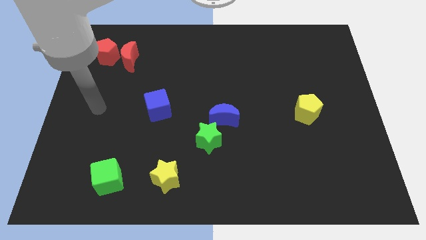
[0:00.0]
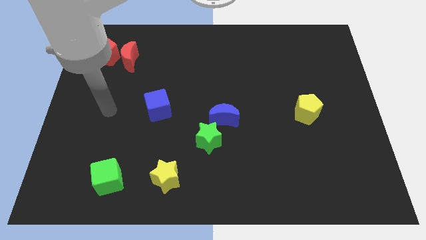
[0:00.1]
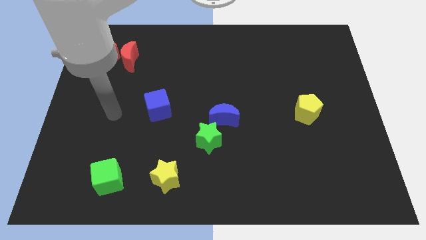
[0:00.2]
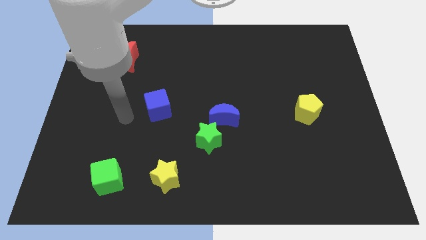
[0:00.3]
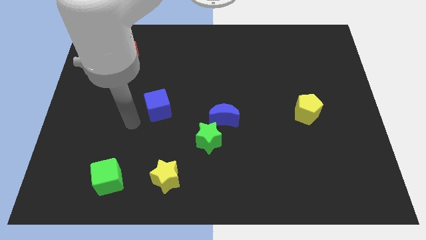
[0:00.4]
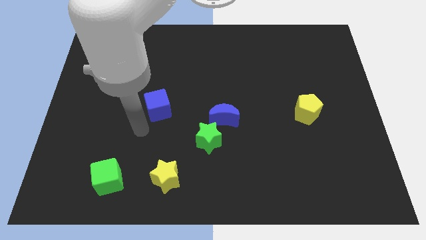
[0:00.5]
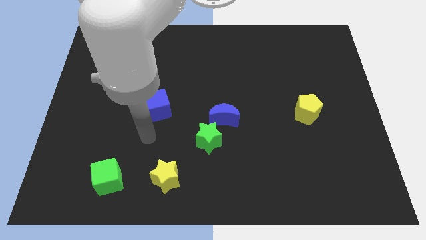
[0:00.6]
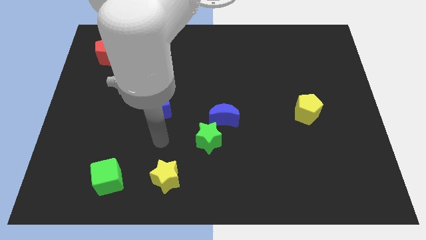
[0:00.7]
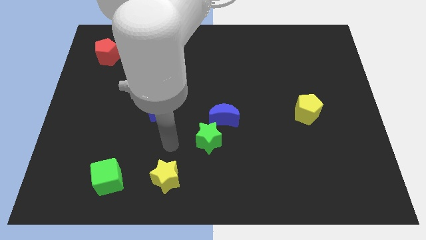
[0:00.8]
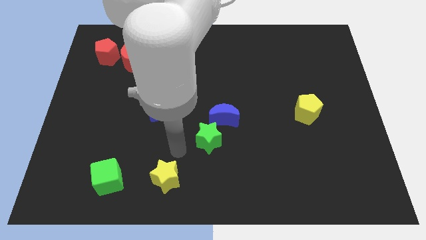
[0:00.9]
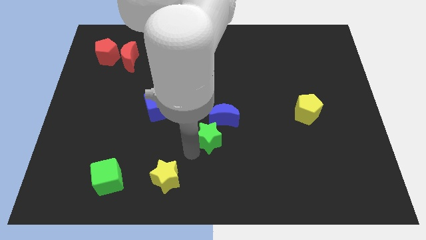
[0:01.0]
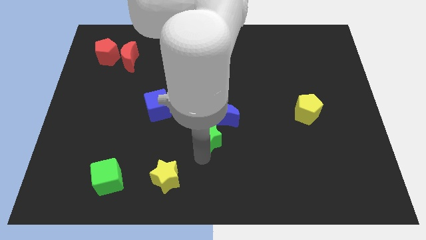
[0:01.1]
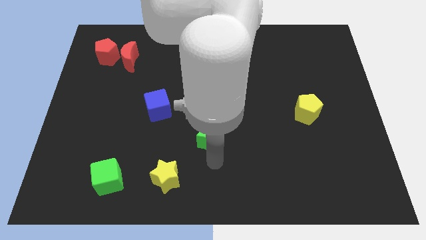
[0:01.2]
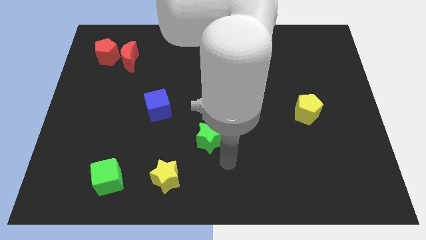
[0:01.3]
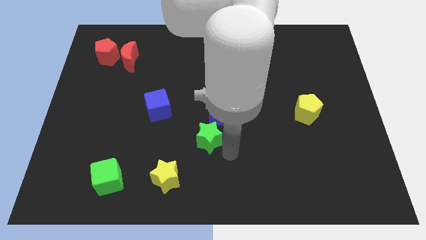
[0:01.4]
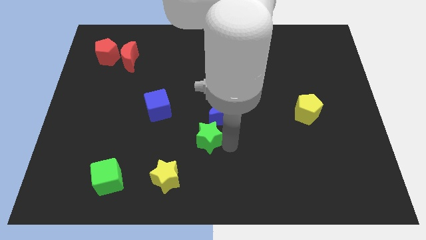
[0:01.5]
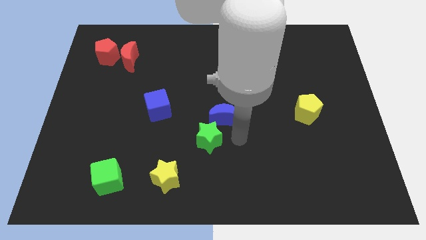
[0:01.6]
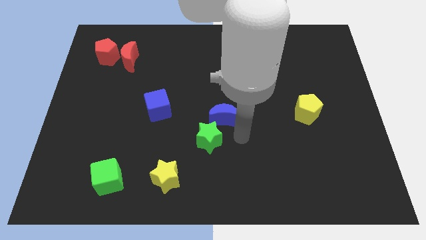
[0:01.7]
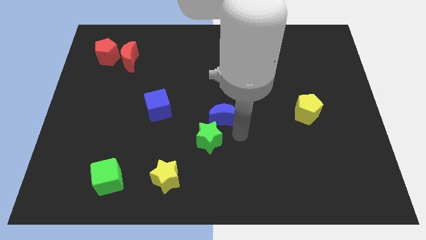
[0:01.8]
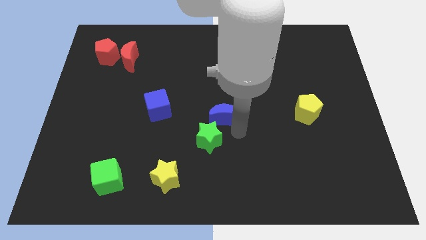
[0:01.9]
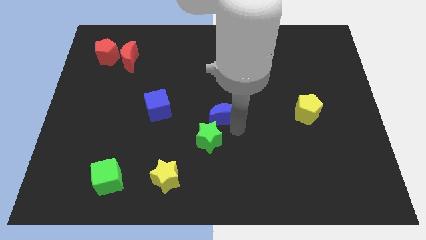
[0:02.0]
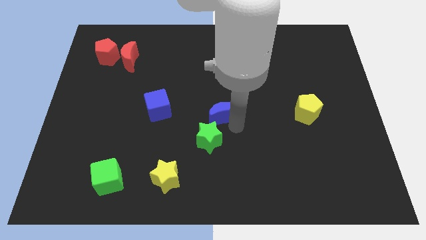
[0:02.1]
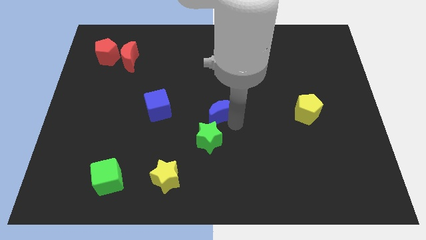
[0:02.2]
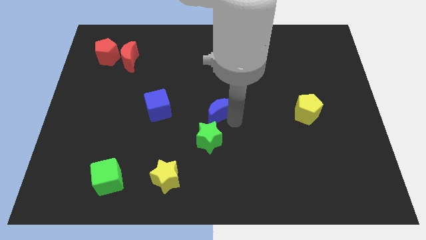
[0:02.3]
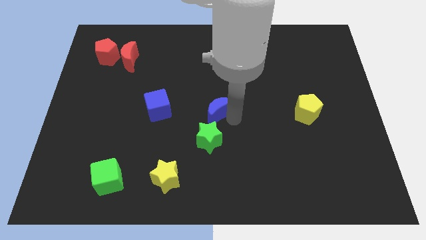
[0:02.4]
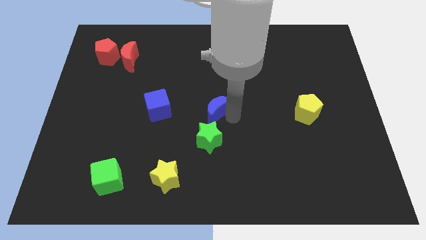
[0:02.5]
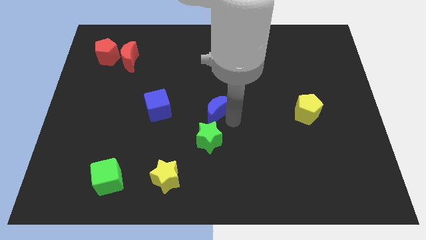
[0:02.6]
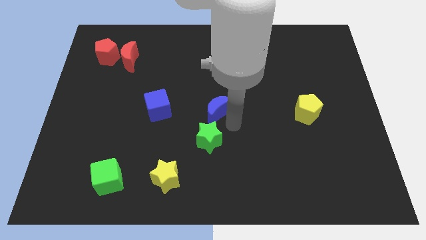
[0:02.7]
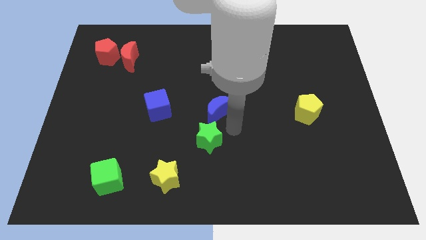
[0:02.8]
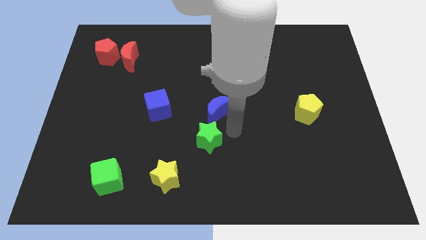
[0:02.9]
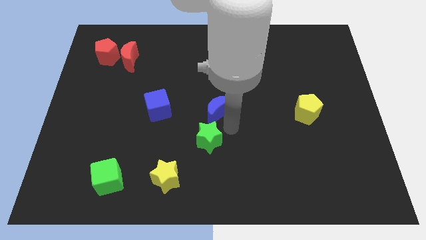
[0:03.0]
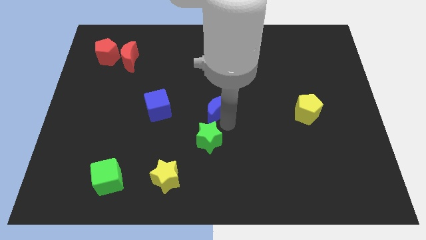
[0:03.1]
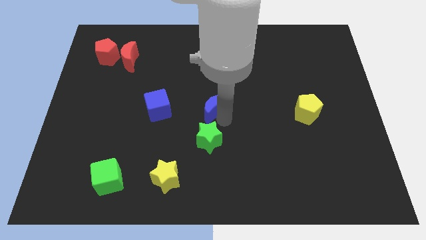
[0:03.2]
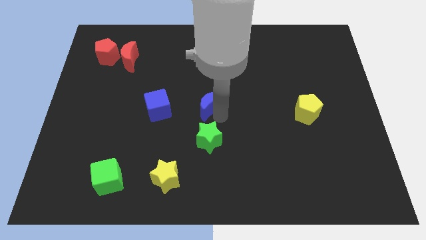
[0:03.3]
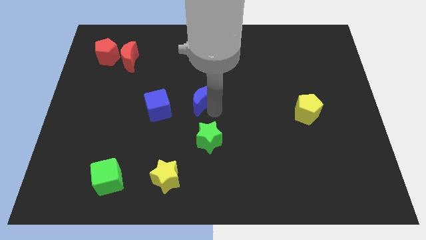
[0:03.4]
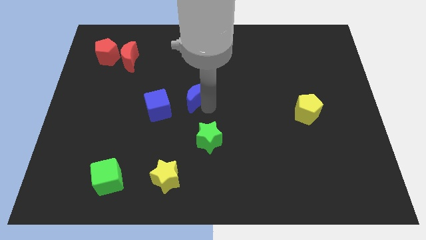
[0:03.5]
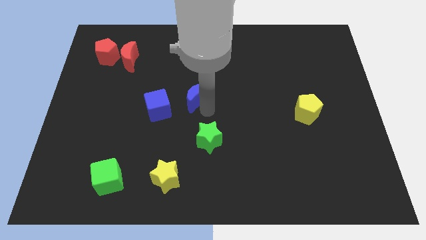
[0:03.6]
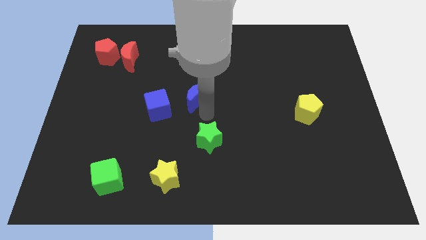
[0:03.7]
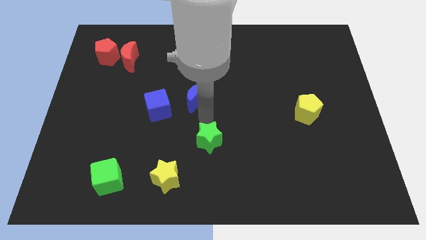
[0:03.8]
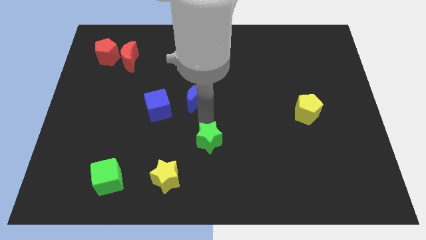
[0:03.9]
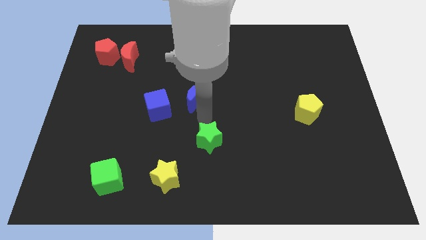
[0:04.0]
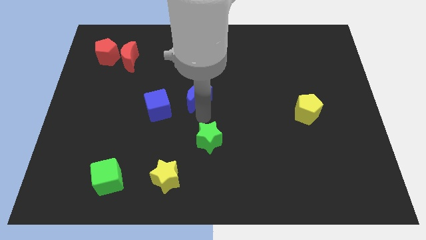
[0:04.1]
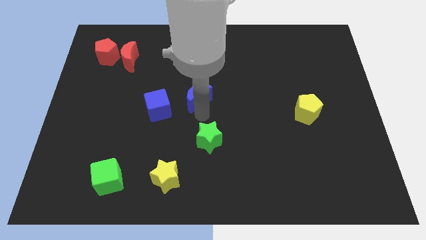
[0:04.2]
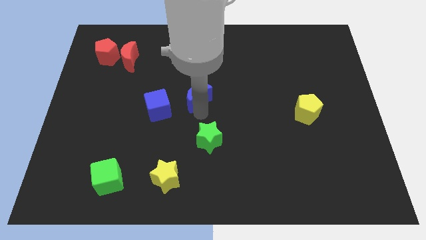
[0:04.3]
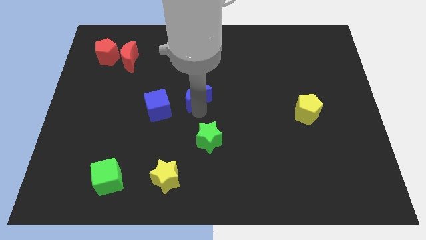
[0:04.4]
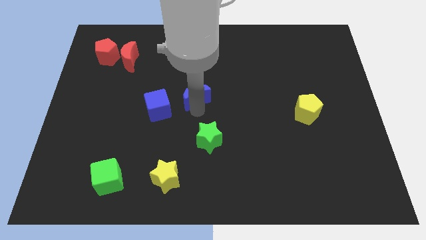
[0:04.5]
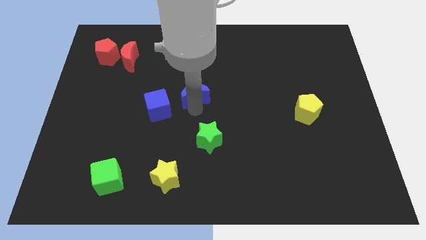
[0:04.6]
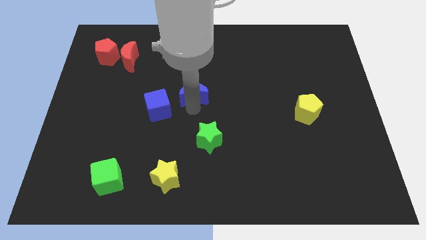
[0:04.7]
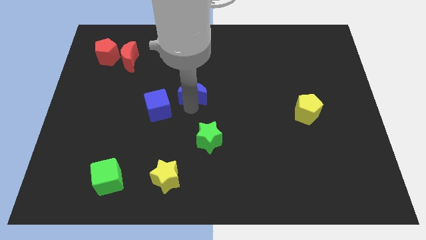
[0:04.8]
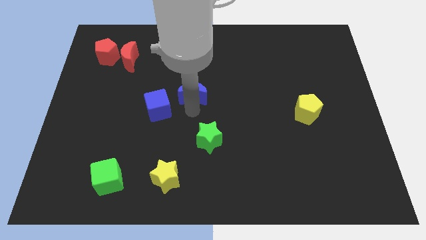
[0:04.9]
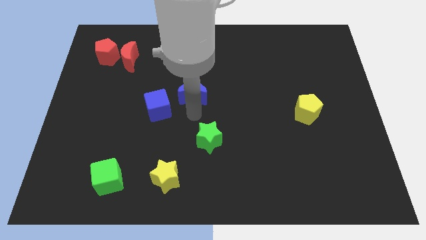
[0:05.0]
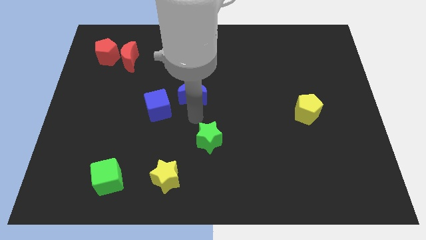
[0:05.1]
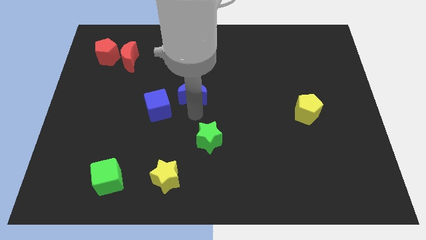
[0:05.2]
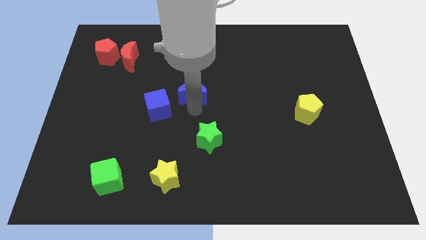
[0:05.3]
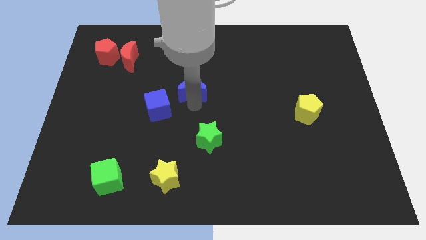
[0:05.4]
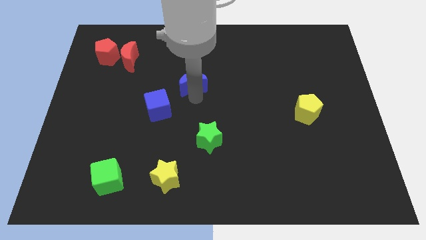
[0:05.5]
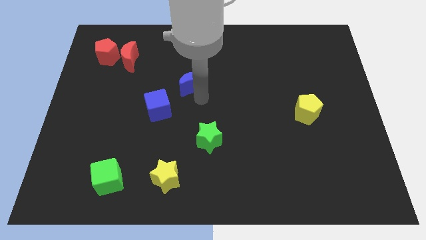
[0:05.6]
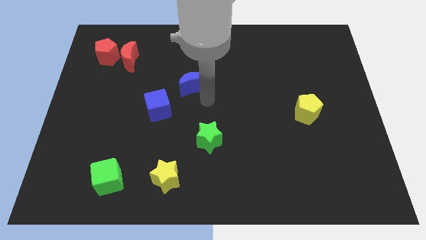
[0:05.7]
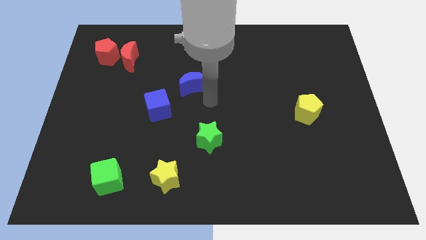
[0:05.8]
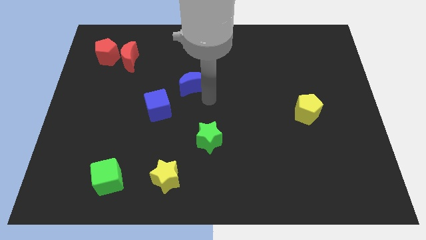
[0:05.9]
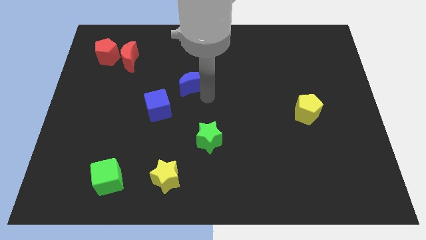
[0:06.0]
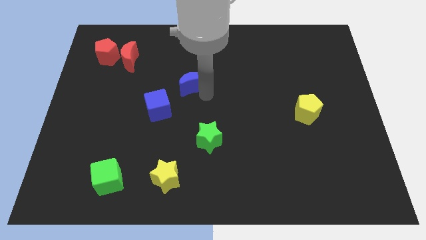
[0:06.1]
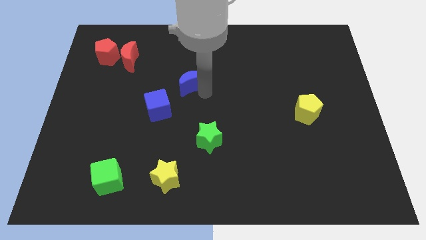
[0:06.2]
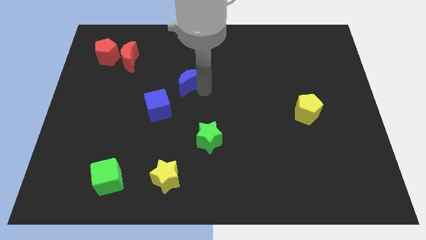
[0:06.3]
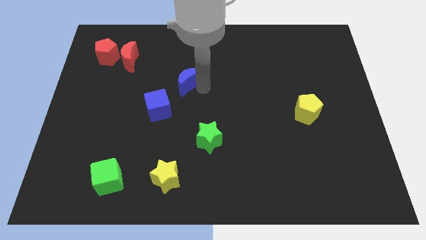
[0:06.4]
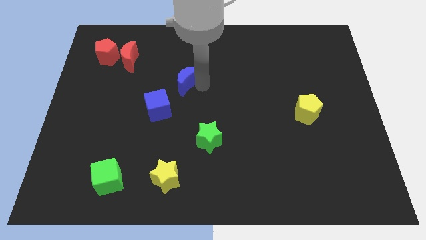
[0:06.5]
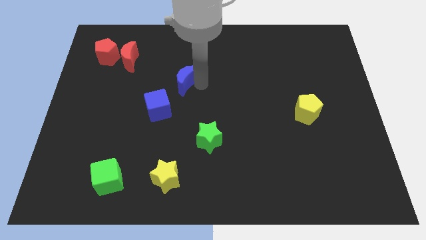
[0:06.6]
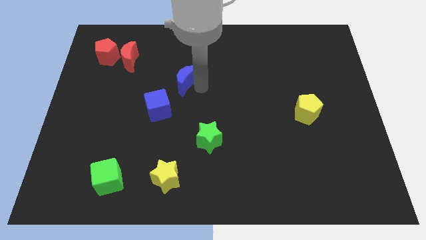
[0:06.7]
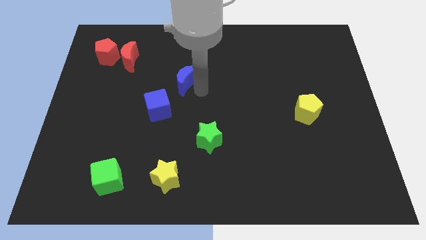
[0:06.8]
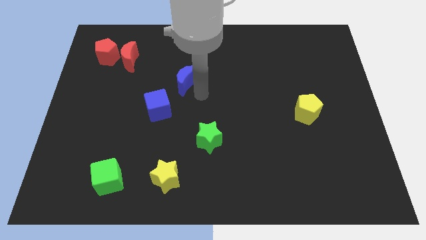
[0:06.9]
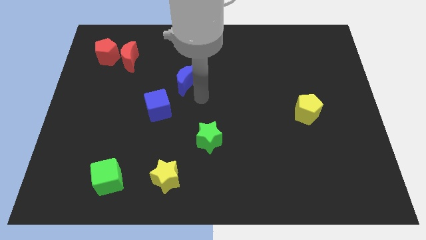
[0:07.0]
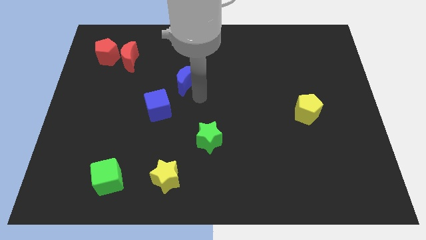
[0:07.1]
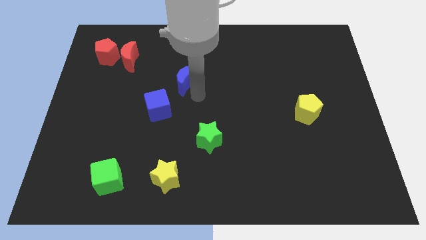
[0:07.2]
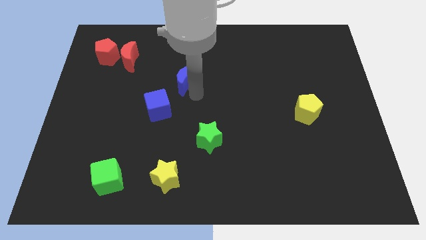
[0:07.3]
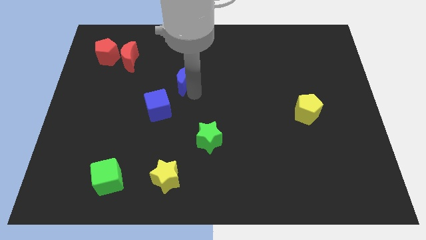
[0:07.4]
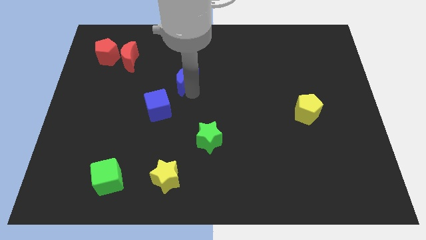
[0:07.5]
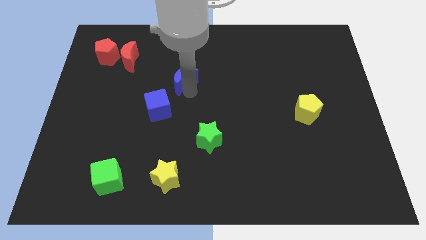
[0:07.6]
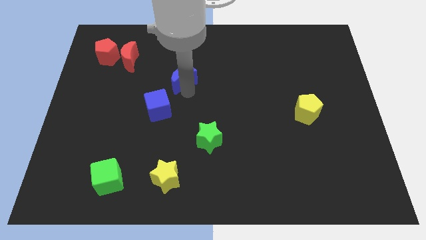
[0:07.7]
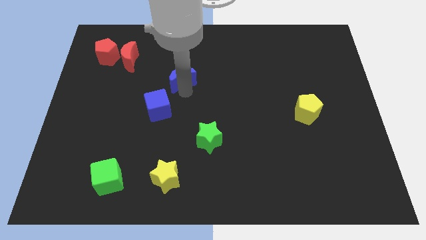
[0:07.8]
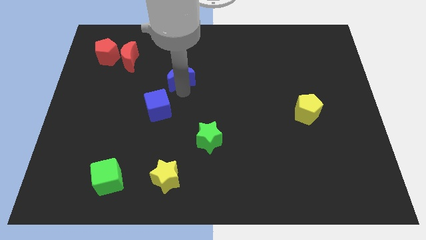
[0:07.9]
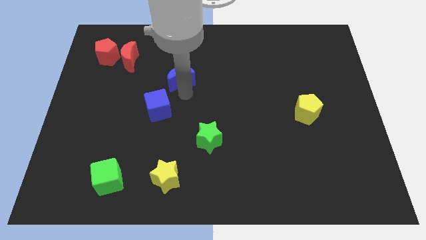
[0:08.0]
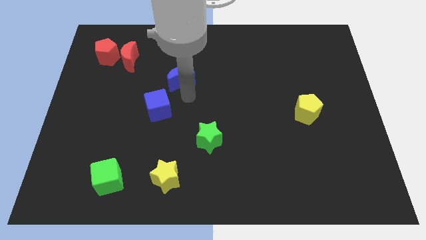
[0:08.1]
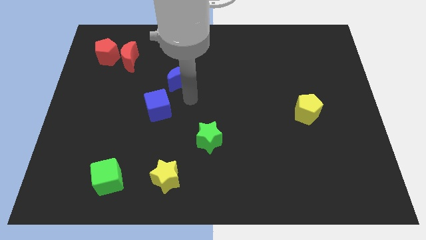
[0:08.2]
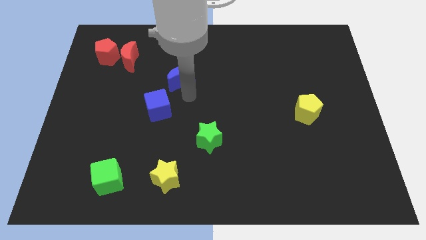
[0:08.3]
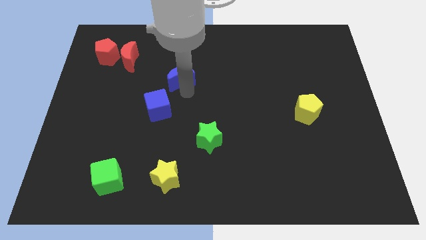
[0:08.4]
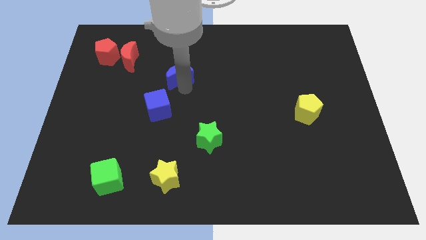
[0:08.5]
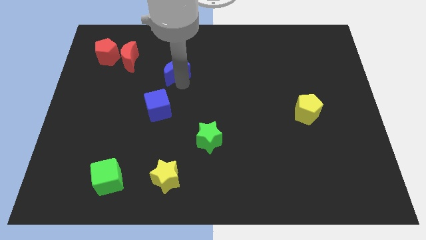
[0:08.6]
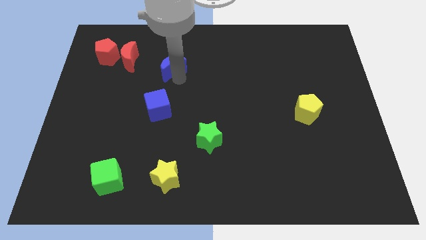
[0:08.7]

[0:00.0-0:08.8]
slide the blue moon right of the red moon
